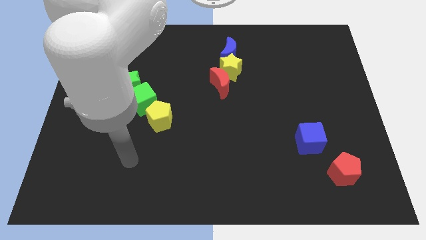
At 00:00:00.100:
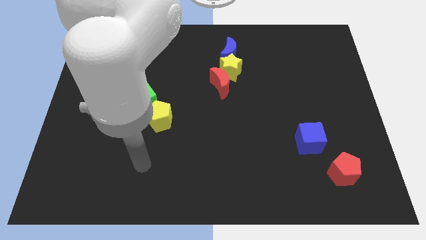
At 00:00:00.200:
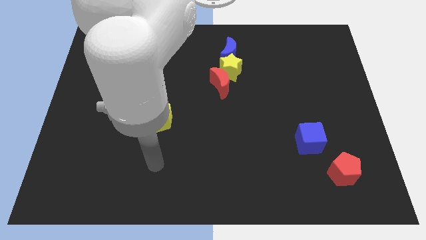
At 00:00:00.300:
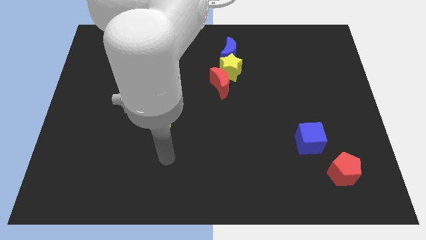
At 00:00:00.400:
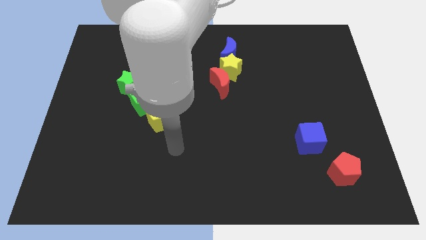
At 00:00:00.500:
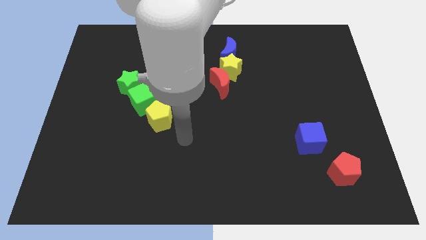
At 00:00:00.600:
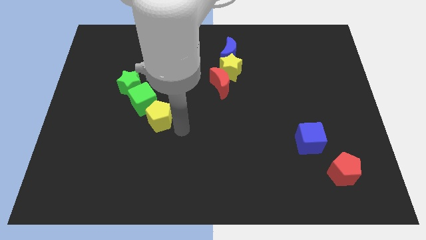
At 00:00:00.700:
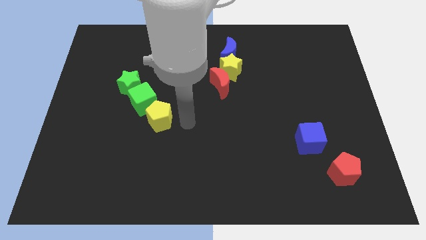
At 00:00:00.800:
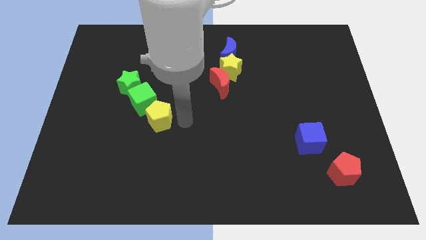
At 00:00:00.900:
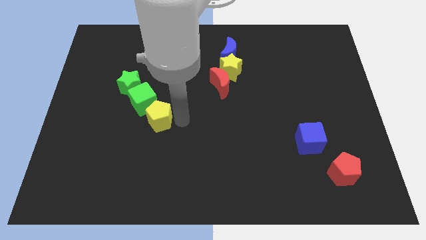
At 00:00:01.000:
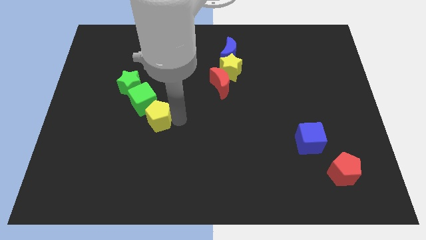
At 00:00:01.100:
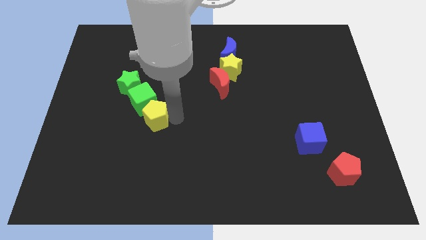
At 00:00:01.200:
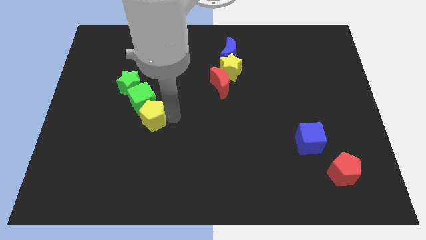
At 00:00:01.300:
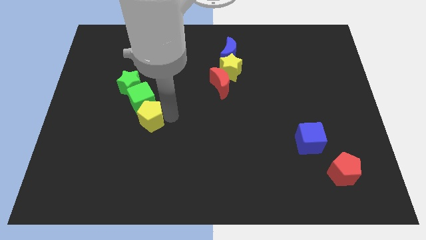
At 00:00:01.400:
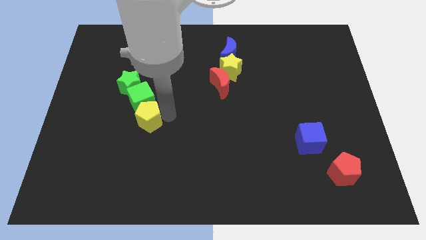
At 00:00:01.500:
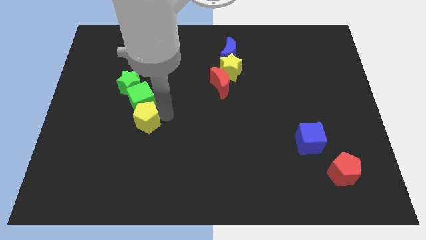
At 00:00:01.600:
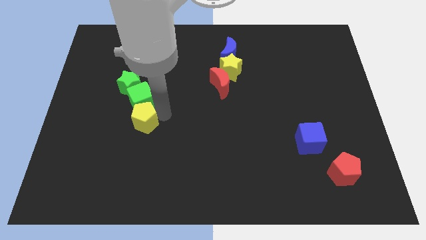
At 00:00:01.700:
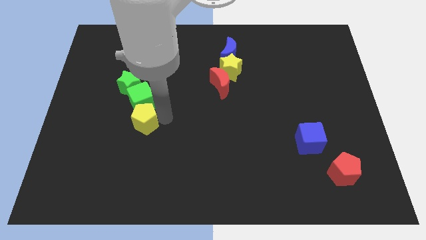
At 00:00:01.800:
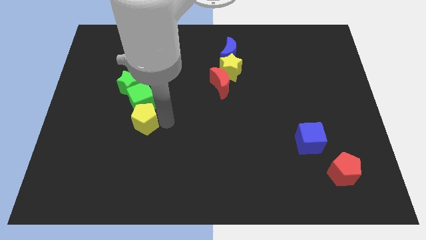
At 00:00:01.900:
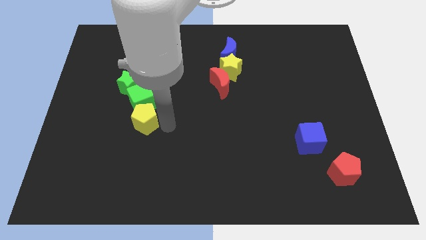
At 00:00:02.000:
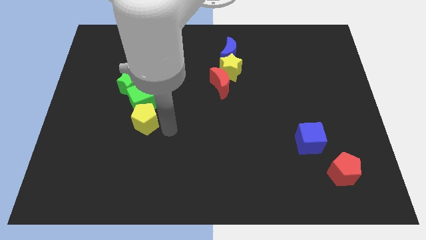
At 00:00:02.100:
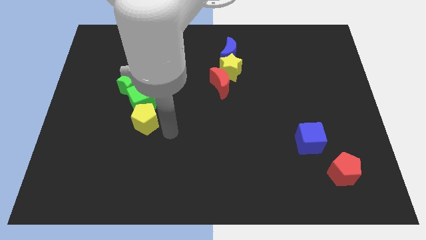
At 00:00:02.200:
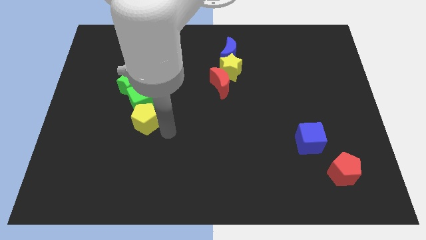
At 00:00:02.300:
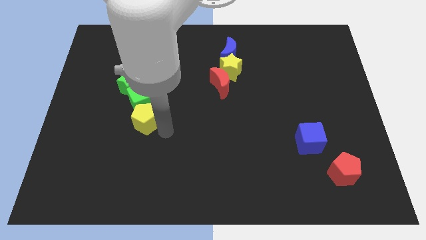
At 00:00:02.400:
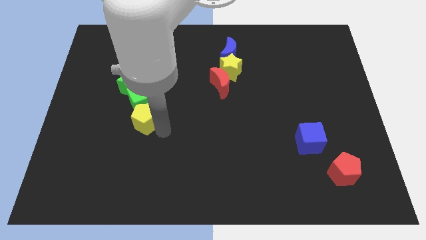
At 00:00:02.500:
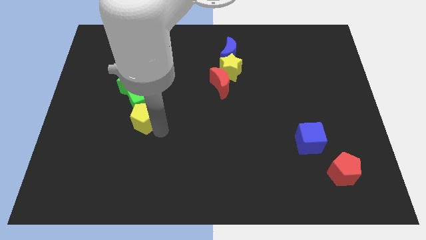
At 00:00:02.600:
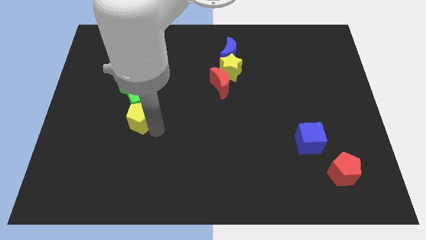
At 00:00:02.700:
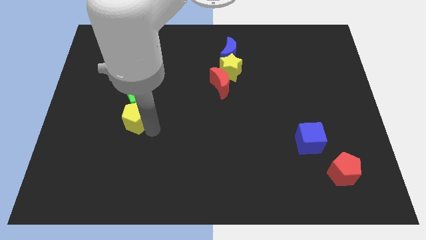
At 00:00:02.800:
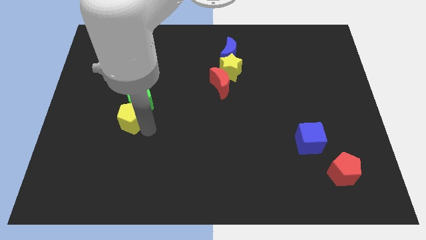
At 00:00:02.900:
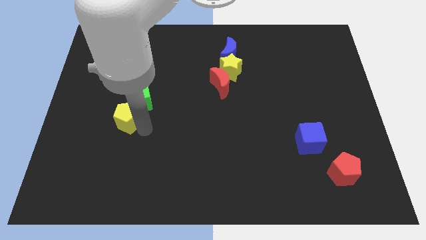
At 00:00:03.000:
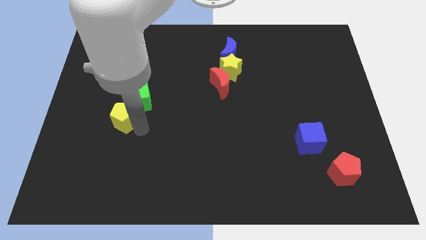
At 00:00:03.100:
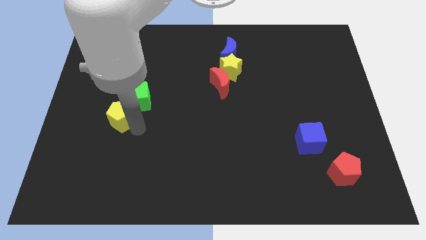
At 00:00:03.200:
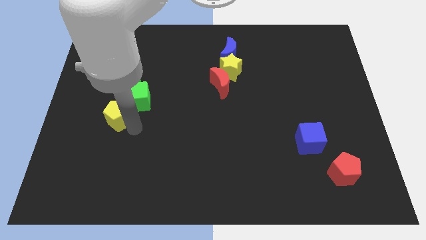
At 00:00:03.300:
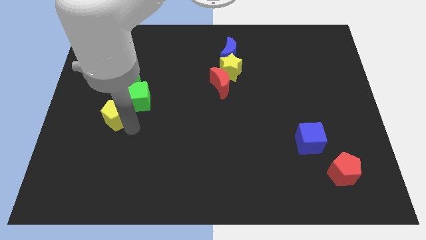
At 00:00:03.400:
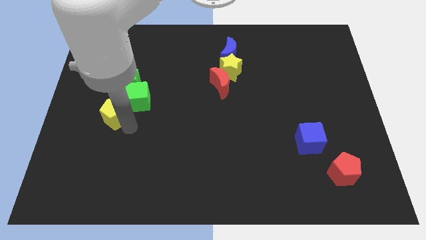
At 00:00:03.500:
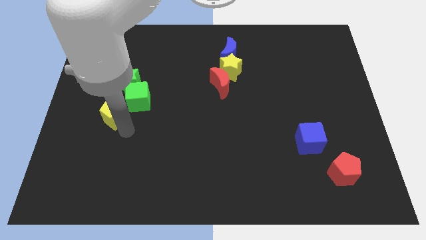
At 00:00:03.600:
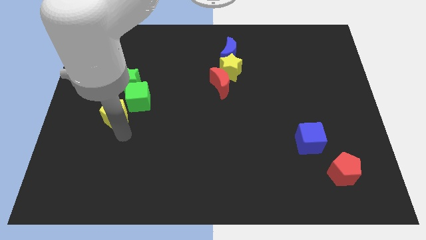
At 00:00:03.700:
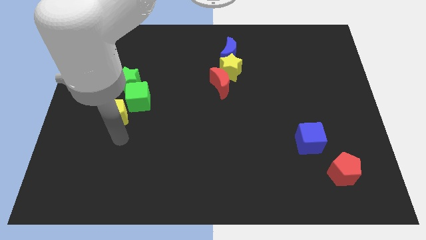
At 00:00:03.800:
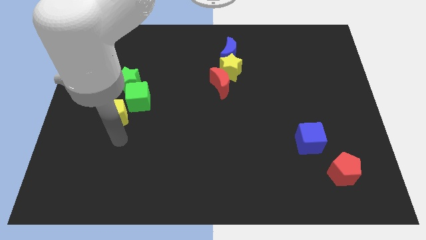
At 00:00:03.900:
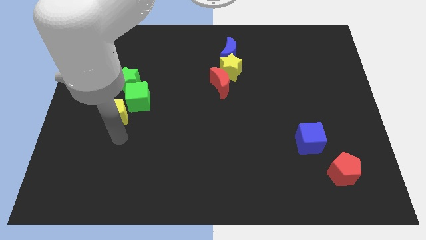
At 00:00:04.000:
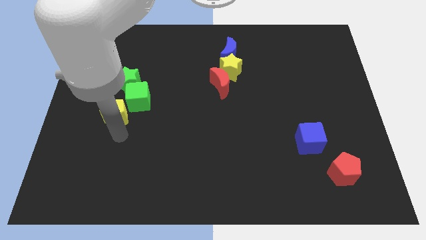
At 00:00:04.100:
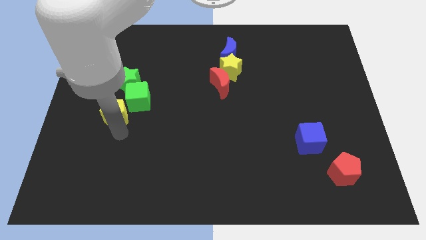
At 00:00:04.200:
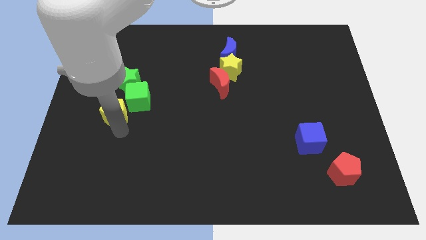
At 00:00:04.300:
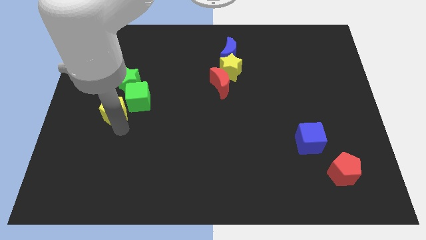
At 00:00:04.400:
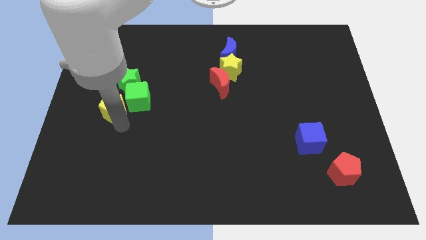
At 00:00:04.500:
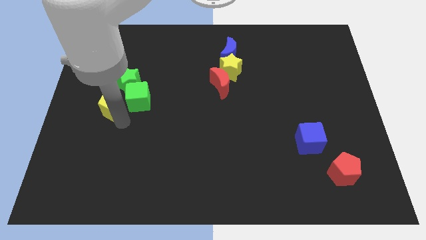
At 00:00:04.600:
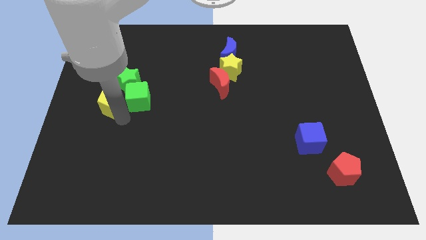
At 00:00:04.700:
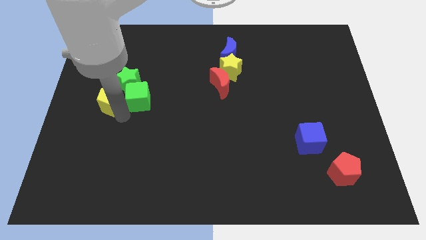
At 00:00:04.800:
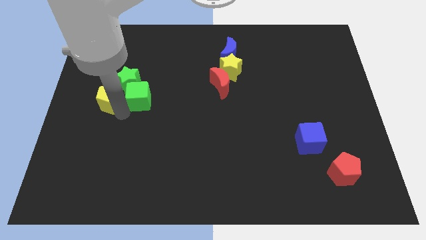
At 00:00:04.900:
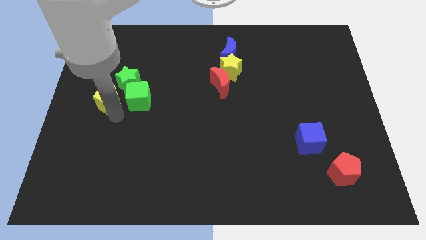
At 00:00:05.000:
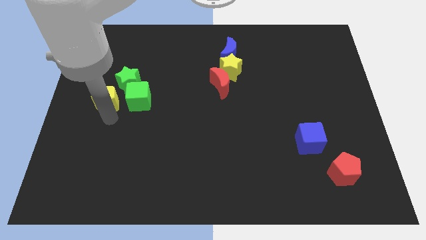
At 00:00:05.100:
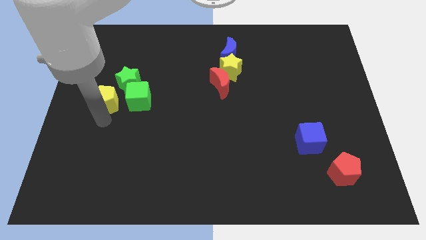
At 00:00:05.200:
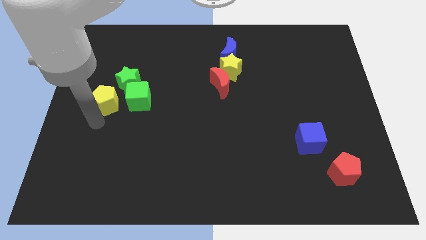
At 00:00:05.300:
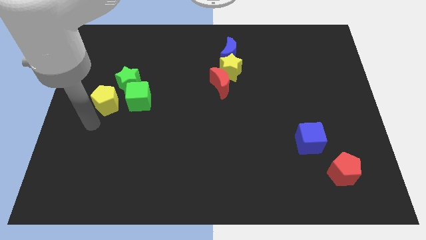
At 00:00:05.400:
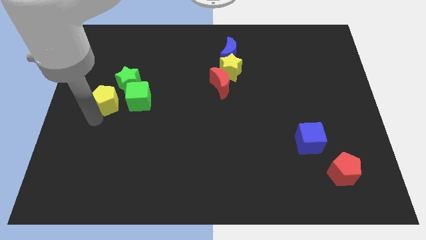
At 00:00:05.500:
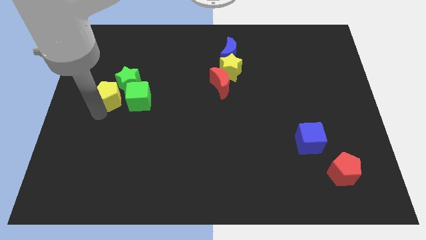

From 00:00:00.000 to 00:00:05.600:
slide the yellow pentagon to the top left side of the green cube

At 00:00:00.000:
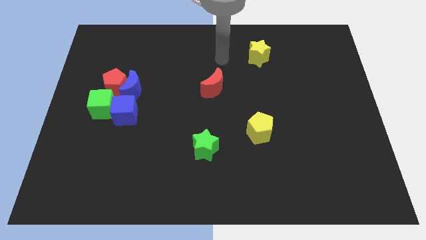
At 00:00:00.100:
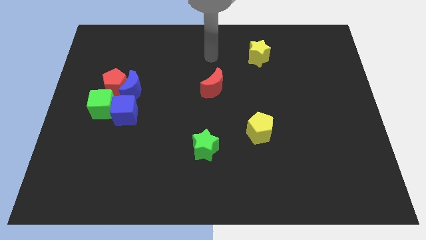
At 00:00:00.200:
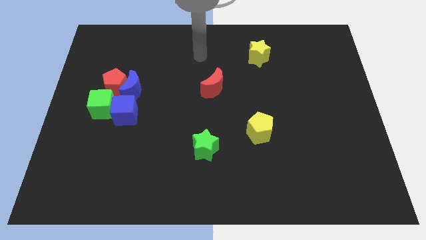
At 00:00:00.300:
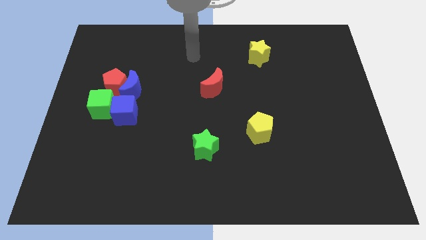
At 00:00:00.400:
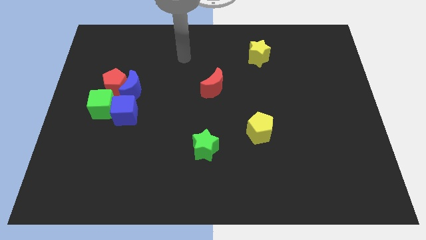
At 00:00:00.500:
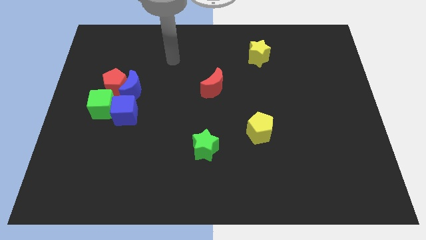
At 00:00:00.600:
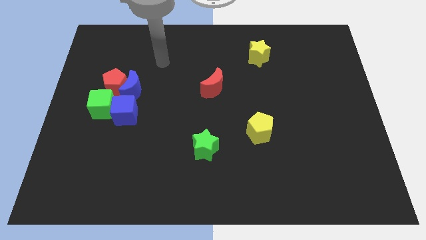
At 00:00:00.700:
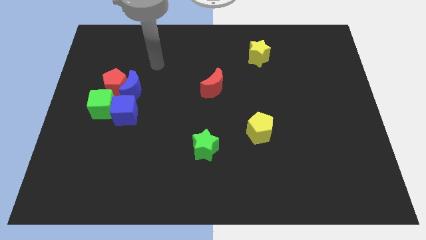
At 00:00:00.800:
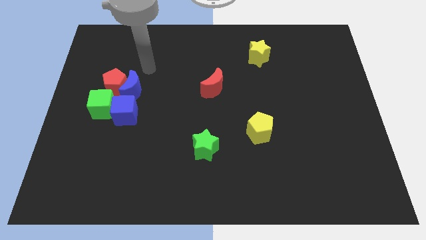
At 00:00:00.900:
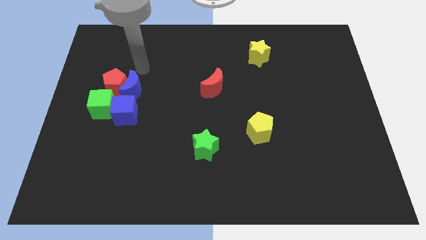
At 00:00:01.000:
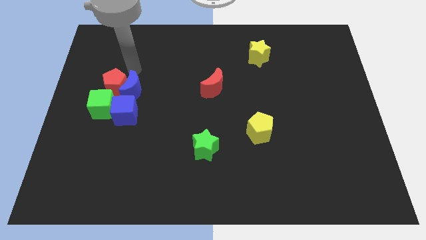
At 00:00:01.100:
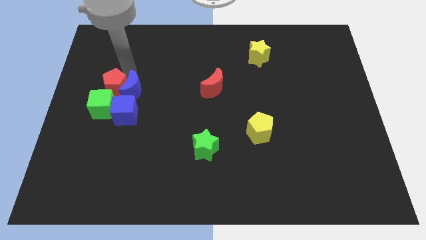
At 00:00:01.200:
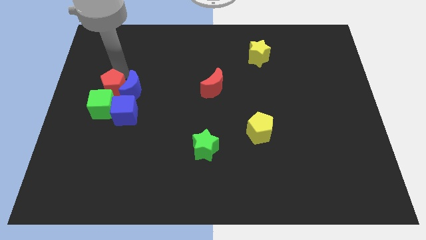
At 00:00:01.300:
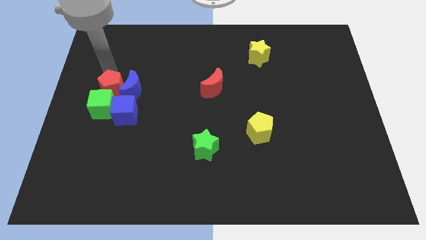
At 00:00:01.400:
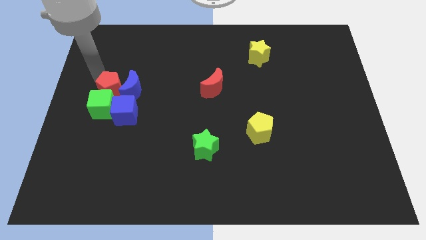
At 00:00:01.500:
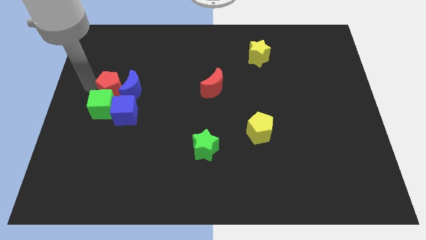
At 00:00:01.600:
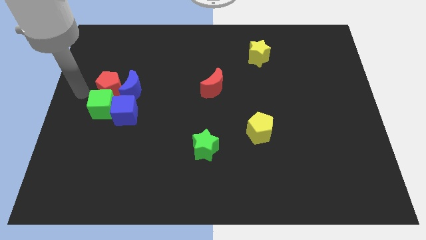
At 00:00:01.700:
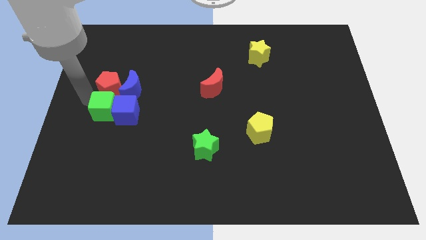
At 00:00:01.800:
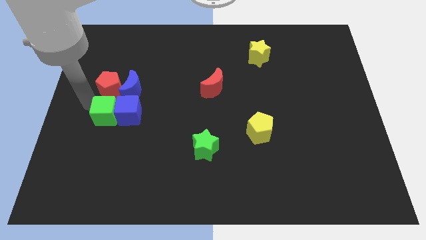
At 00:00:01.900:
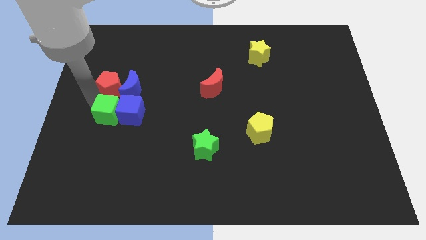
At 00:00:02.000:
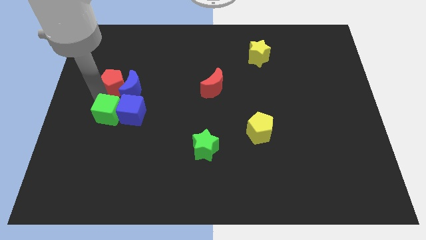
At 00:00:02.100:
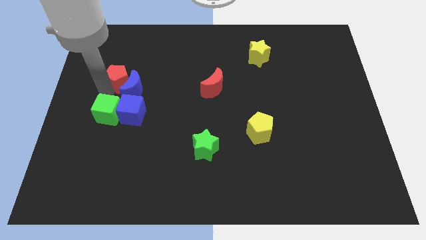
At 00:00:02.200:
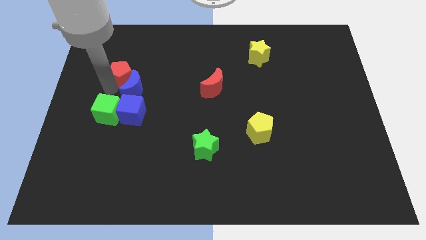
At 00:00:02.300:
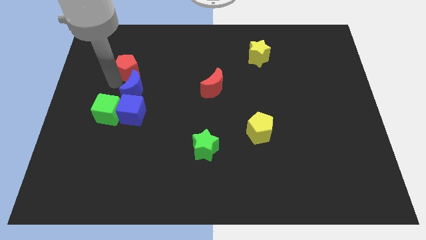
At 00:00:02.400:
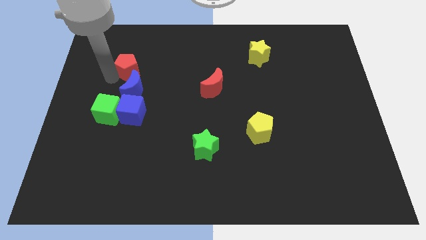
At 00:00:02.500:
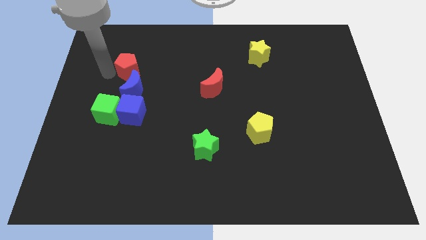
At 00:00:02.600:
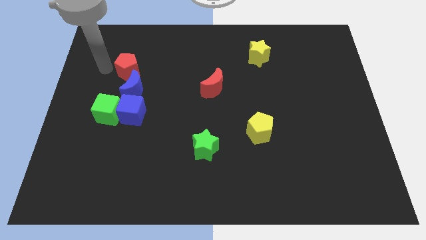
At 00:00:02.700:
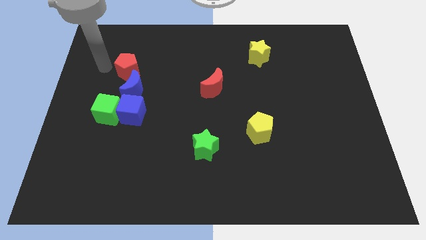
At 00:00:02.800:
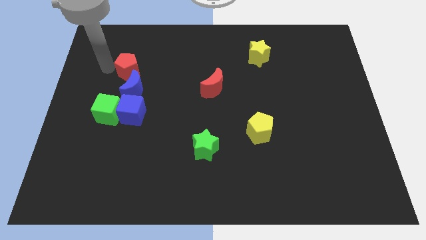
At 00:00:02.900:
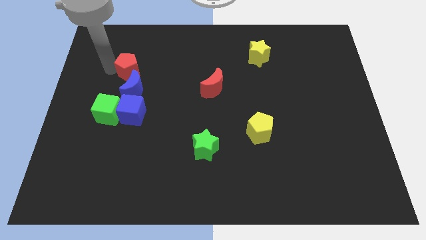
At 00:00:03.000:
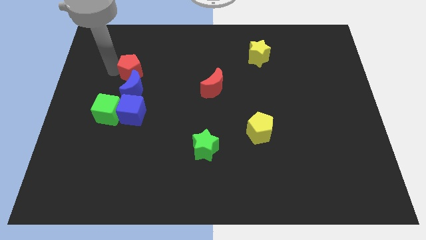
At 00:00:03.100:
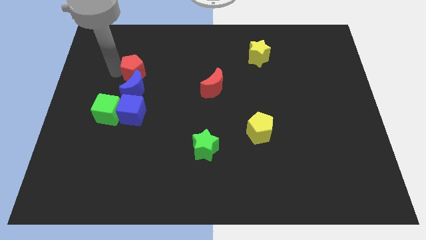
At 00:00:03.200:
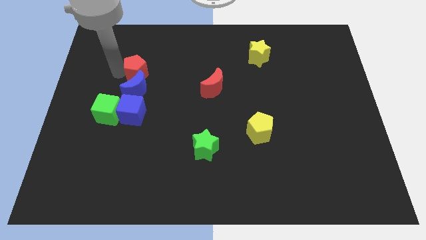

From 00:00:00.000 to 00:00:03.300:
slide the red pentagon to the top right of the blue moon
